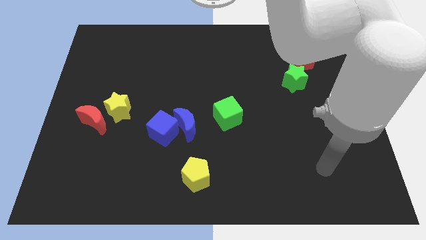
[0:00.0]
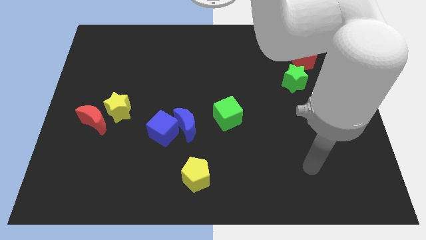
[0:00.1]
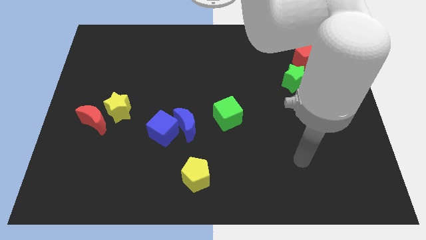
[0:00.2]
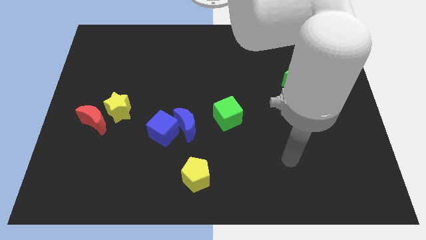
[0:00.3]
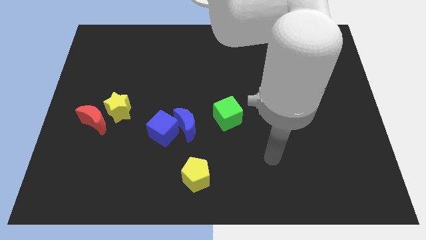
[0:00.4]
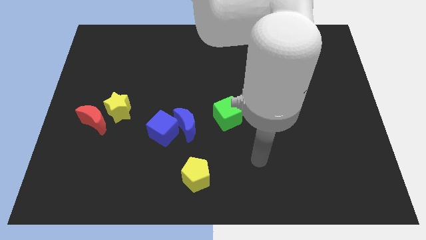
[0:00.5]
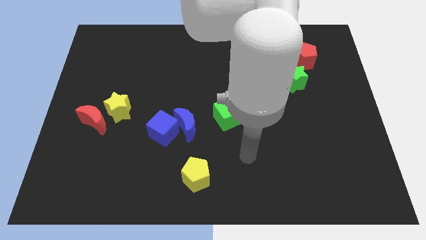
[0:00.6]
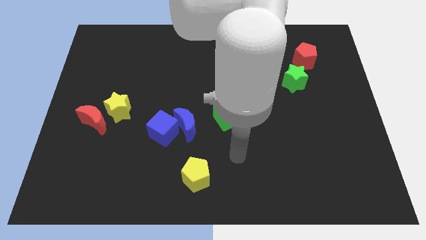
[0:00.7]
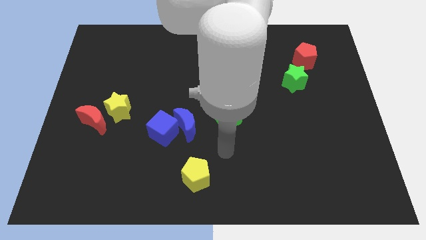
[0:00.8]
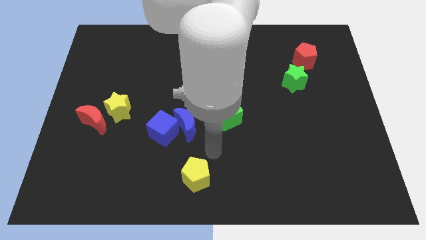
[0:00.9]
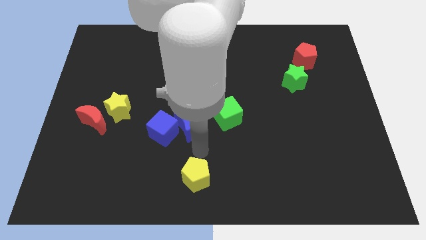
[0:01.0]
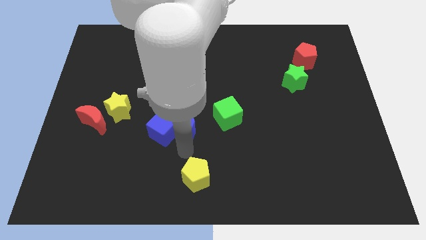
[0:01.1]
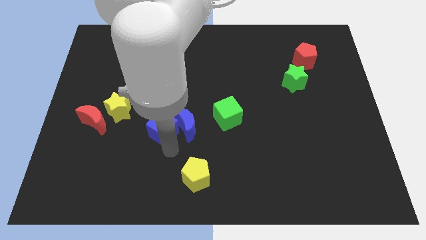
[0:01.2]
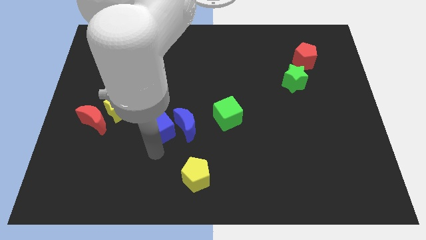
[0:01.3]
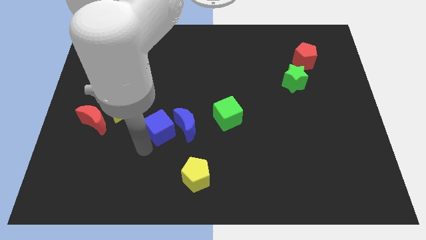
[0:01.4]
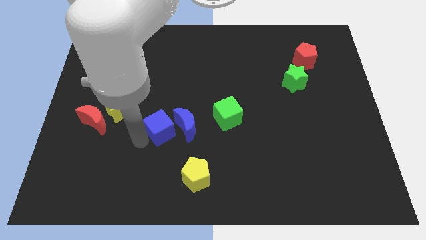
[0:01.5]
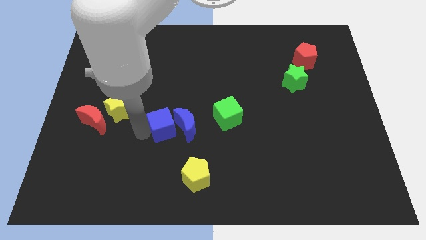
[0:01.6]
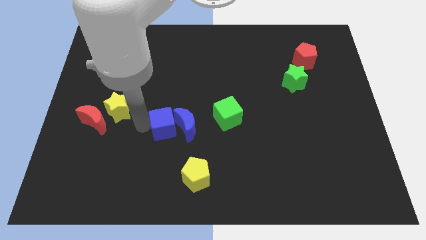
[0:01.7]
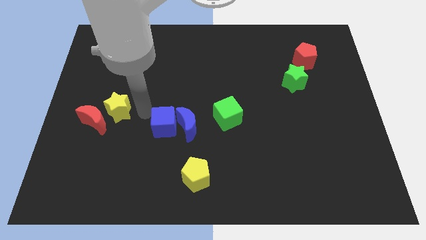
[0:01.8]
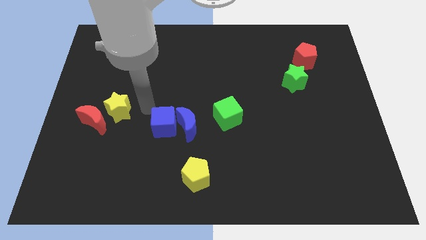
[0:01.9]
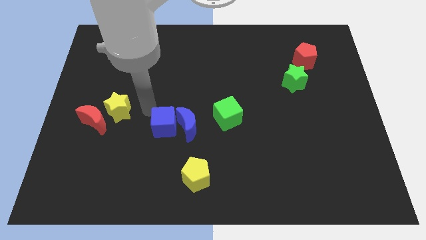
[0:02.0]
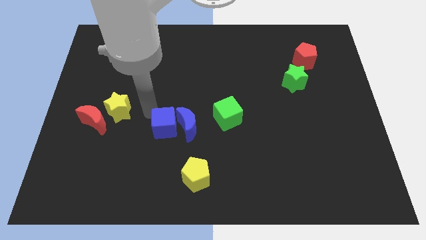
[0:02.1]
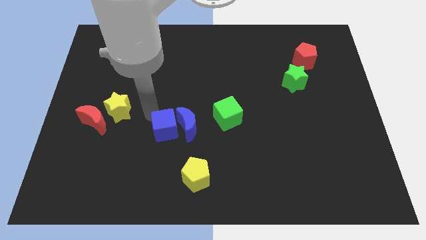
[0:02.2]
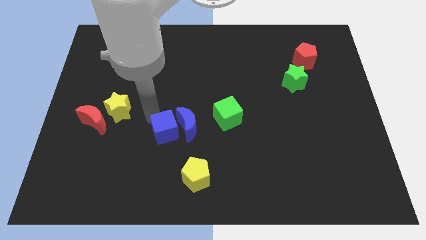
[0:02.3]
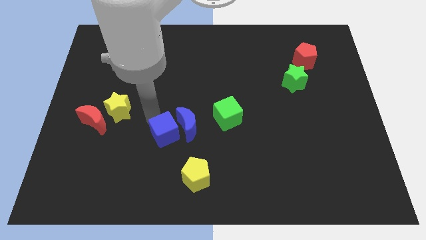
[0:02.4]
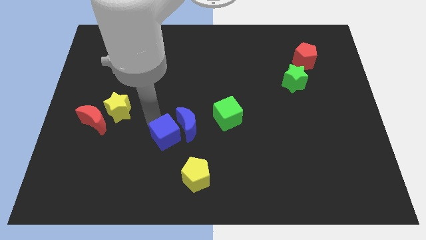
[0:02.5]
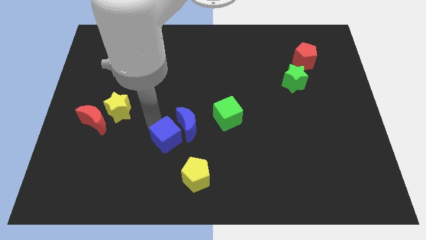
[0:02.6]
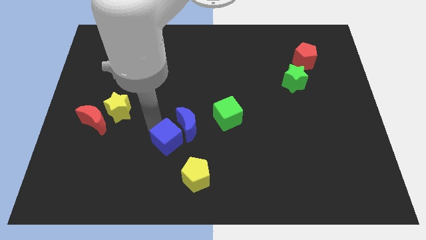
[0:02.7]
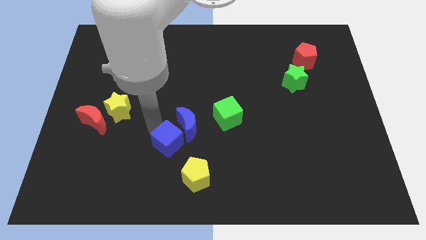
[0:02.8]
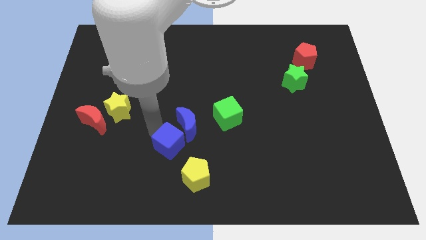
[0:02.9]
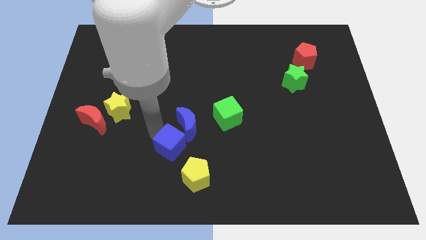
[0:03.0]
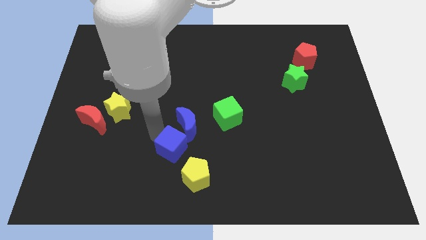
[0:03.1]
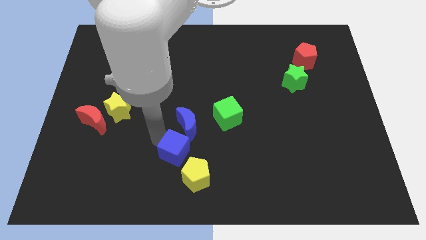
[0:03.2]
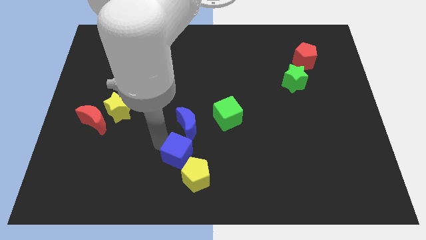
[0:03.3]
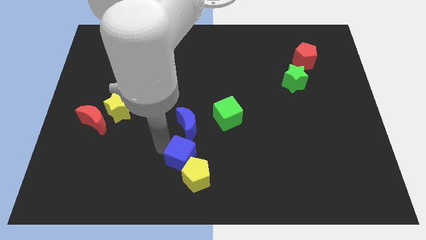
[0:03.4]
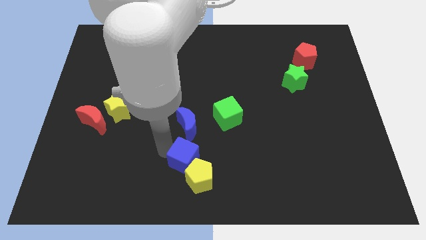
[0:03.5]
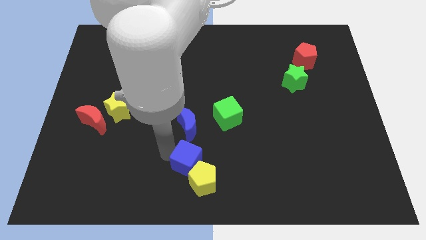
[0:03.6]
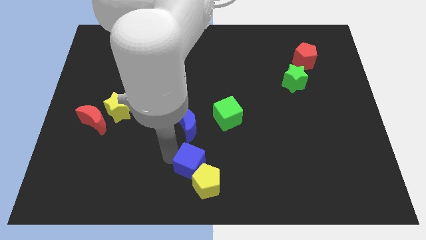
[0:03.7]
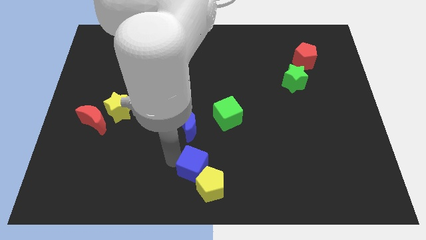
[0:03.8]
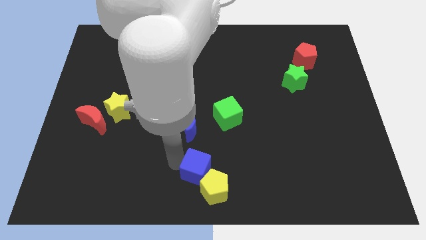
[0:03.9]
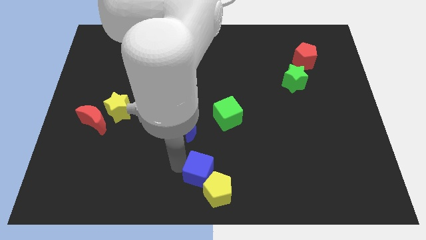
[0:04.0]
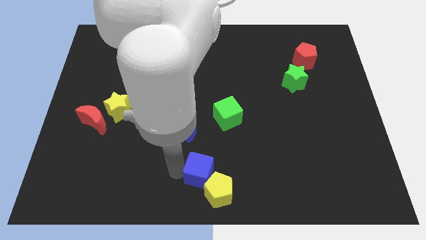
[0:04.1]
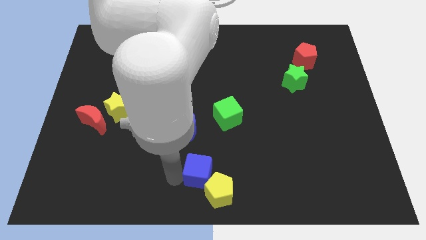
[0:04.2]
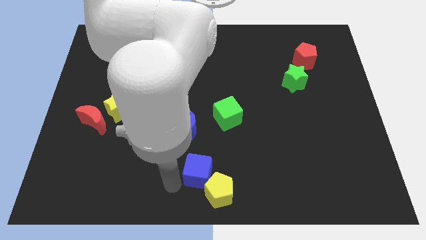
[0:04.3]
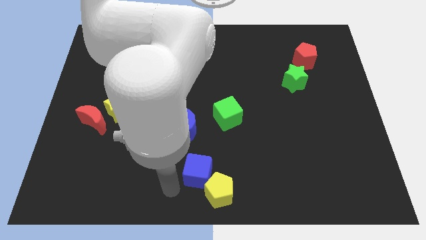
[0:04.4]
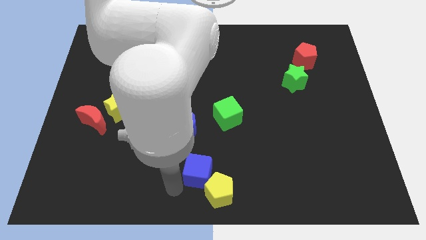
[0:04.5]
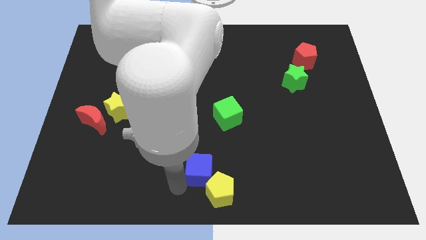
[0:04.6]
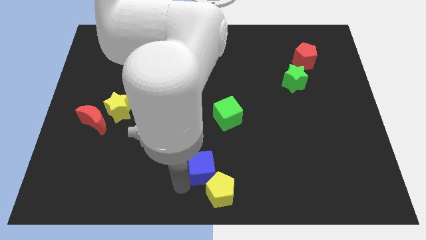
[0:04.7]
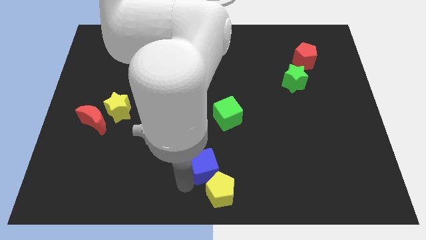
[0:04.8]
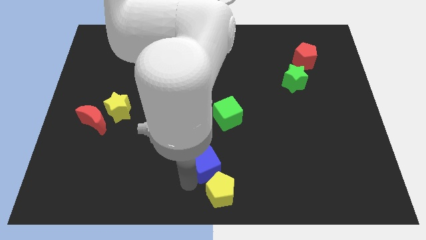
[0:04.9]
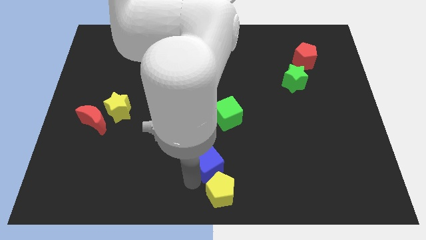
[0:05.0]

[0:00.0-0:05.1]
put the blue cube below the green cube

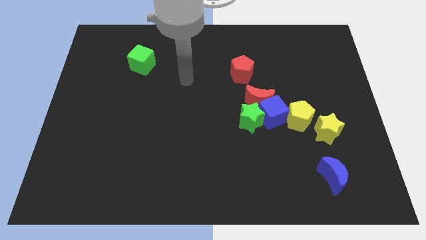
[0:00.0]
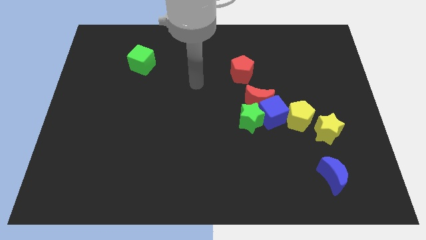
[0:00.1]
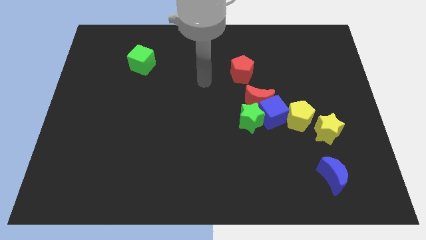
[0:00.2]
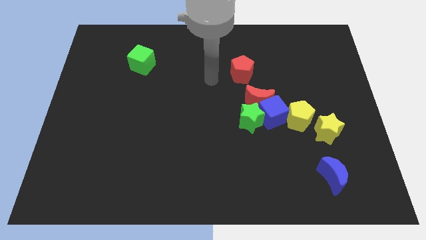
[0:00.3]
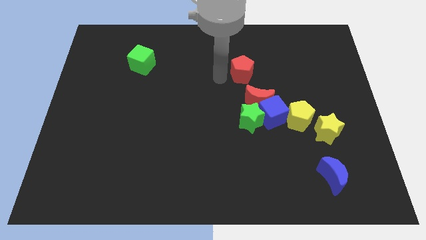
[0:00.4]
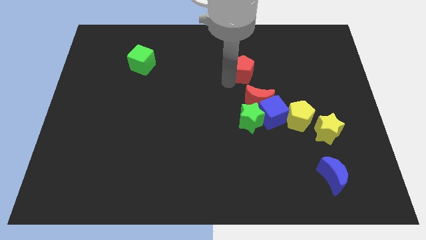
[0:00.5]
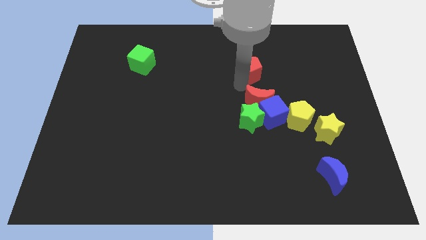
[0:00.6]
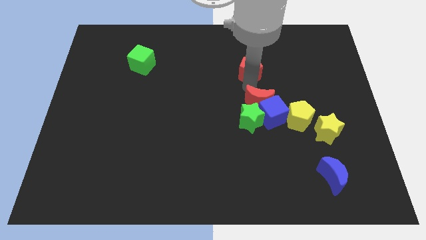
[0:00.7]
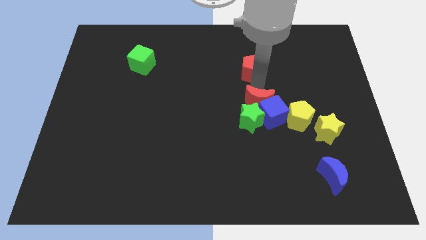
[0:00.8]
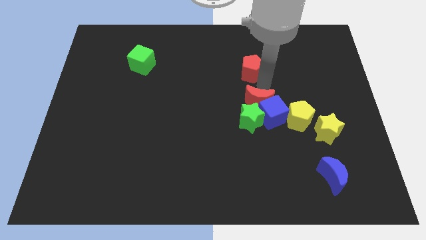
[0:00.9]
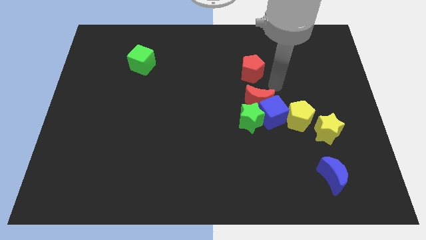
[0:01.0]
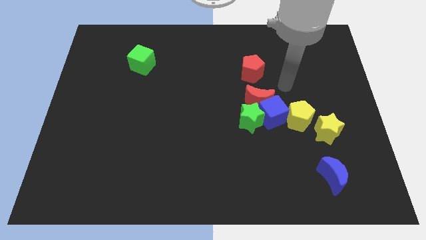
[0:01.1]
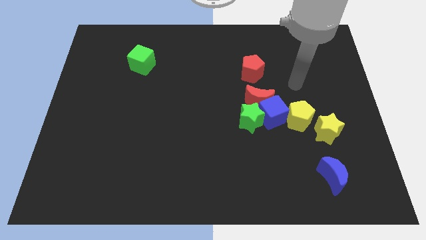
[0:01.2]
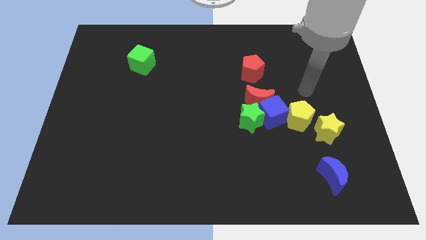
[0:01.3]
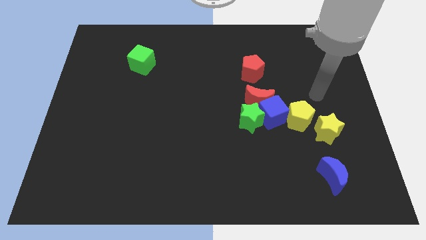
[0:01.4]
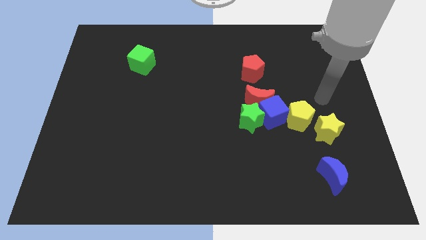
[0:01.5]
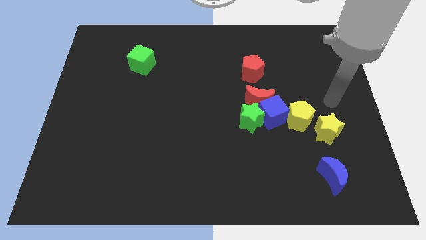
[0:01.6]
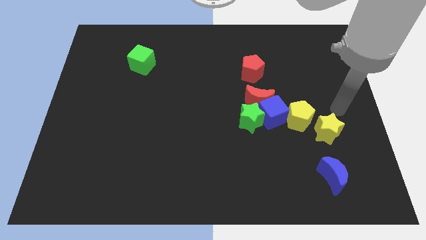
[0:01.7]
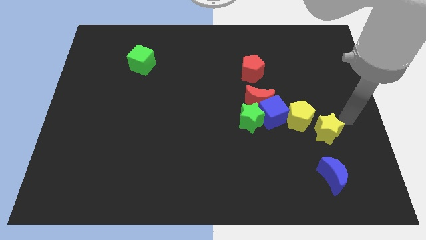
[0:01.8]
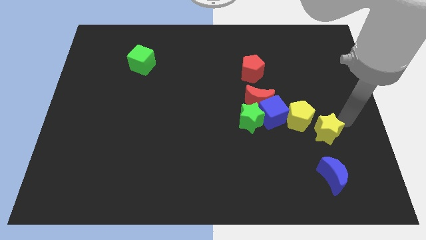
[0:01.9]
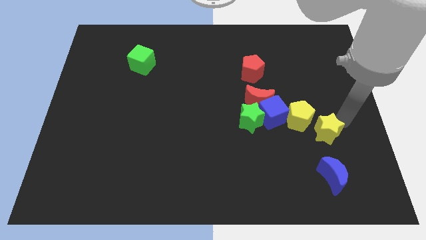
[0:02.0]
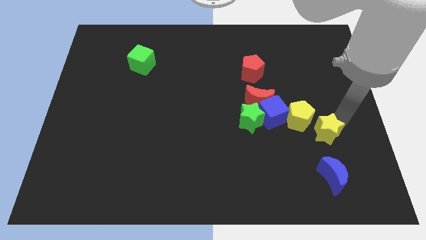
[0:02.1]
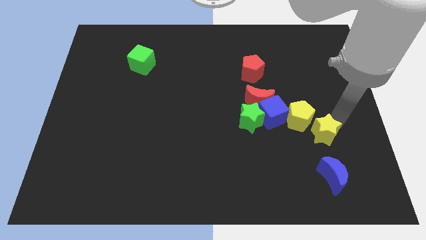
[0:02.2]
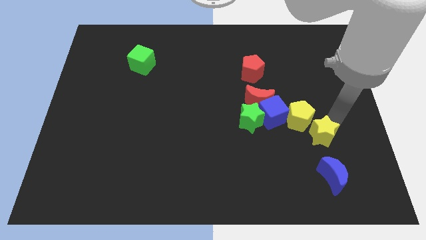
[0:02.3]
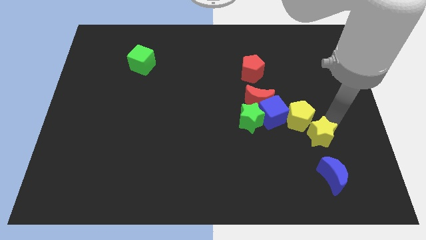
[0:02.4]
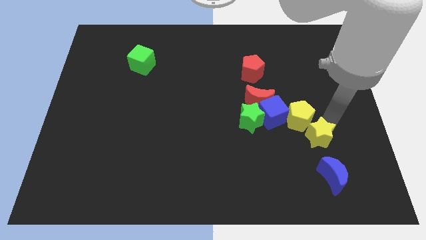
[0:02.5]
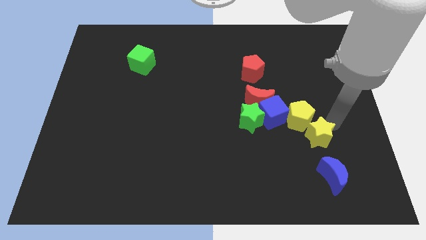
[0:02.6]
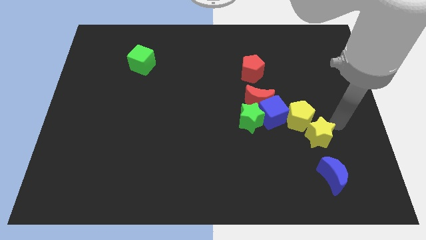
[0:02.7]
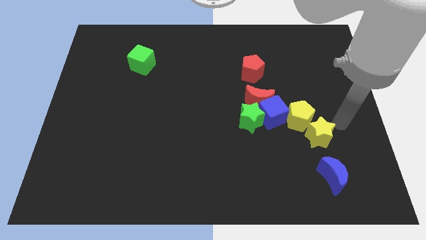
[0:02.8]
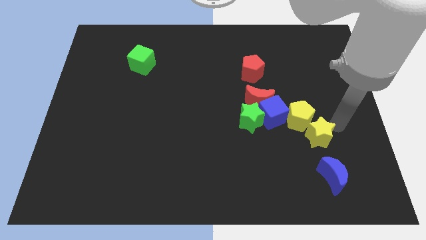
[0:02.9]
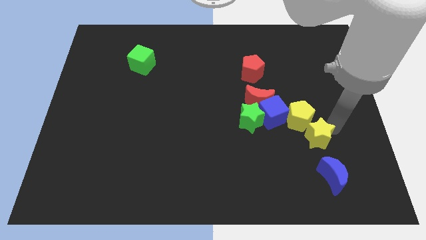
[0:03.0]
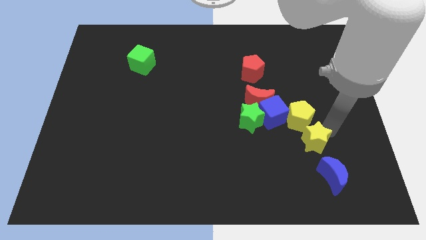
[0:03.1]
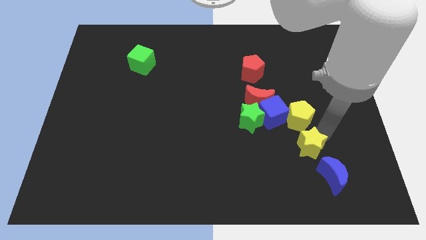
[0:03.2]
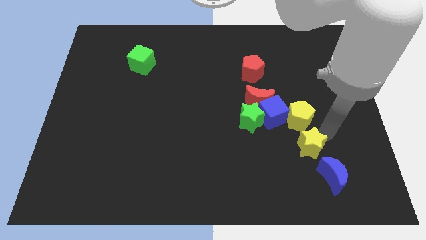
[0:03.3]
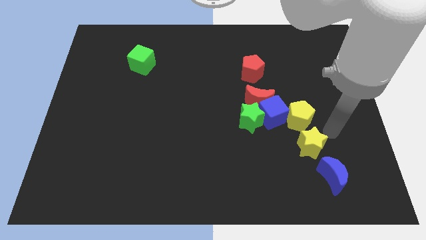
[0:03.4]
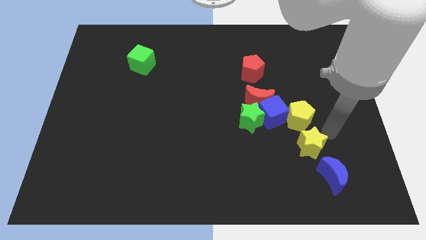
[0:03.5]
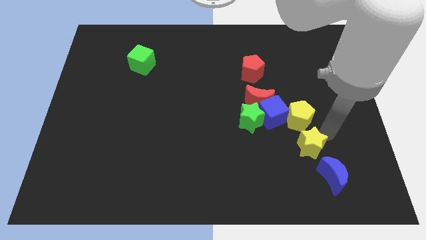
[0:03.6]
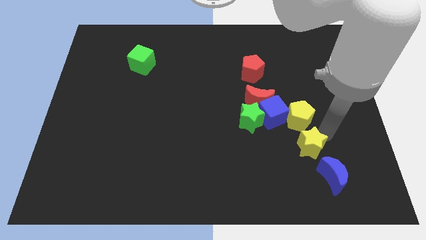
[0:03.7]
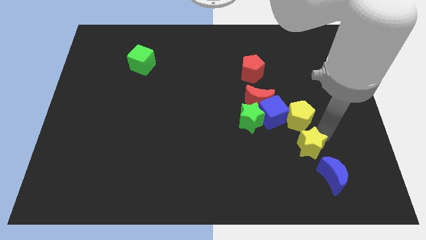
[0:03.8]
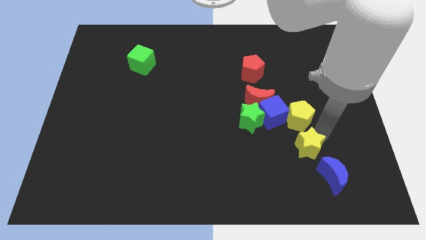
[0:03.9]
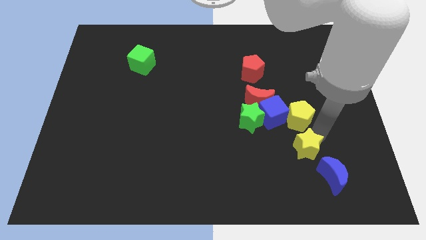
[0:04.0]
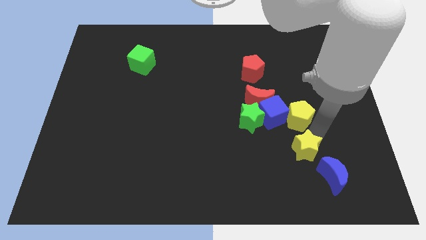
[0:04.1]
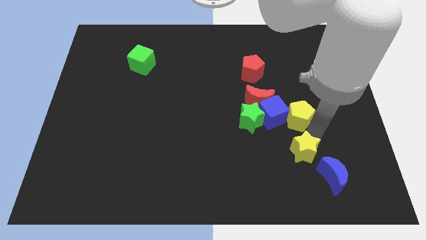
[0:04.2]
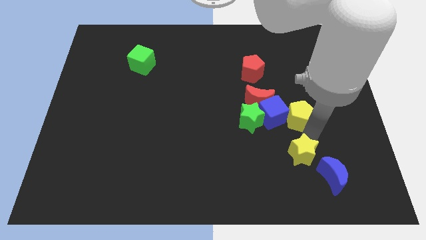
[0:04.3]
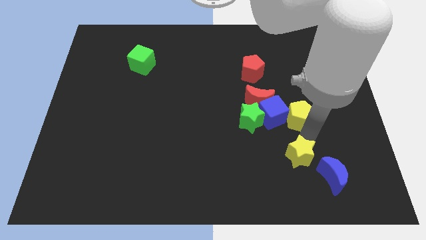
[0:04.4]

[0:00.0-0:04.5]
push the yellow star to the left of the blue moon
